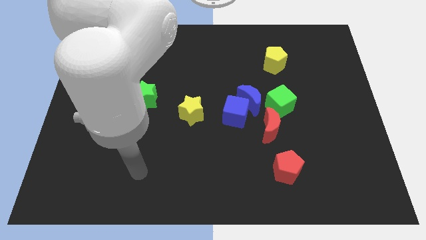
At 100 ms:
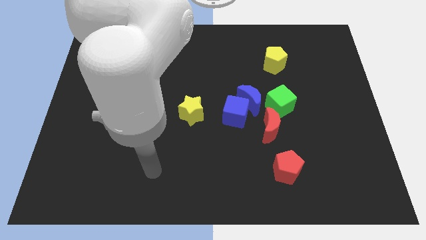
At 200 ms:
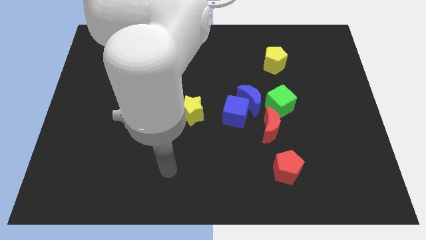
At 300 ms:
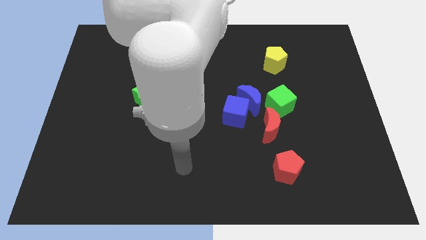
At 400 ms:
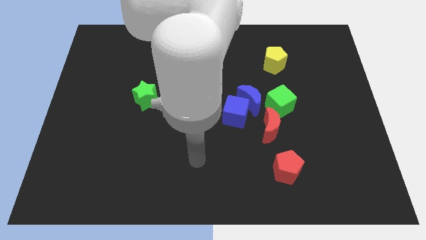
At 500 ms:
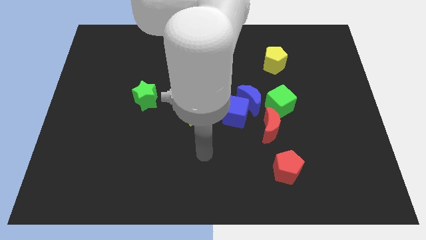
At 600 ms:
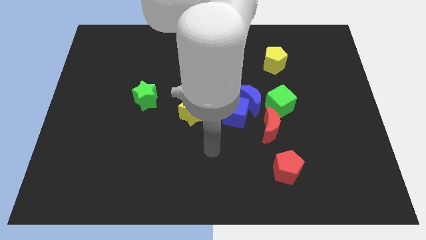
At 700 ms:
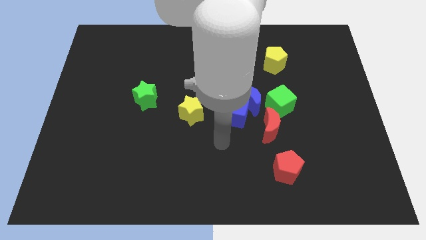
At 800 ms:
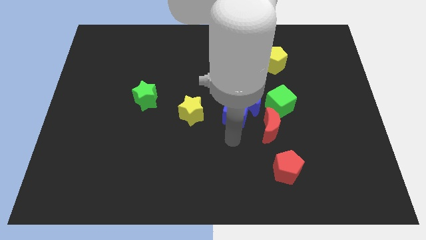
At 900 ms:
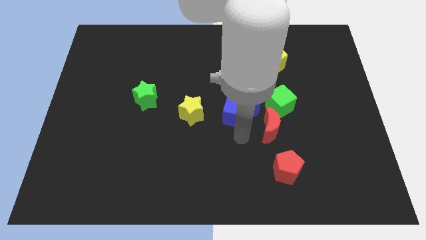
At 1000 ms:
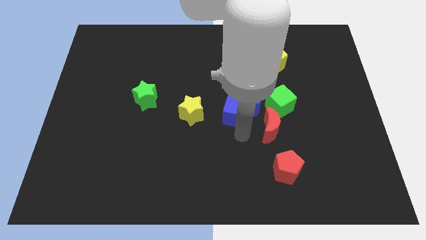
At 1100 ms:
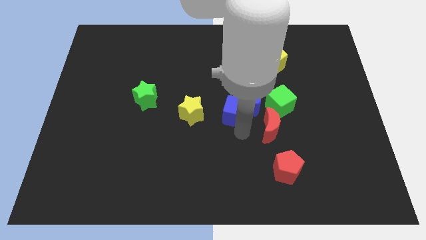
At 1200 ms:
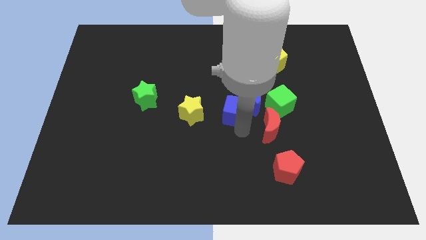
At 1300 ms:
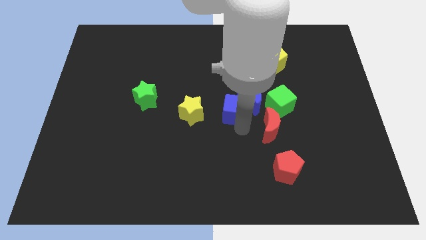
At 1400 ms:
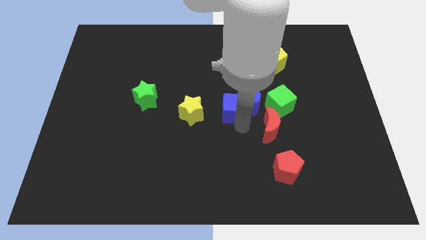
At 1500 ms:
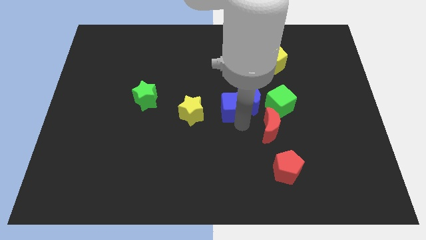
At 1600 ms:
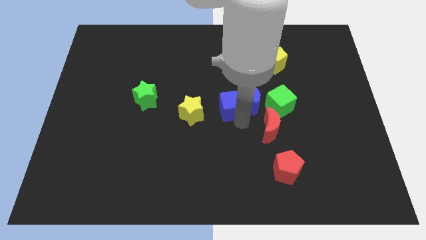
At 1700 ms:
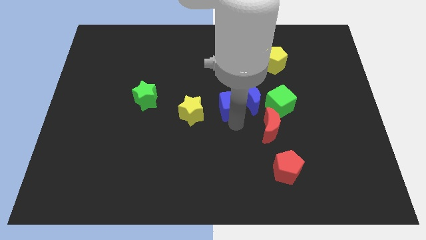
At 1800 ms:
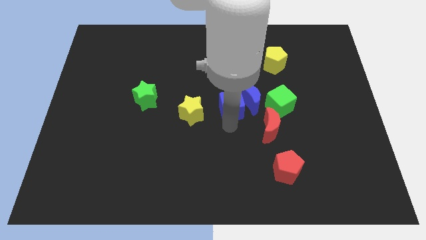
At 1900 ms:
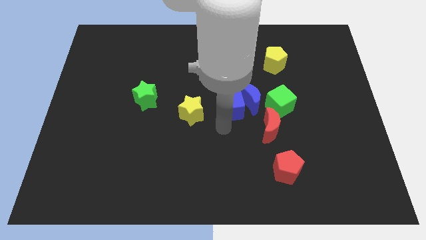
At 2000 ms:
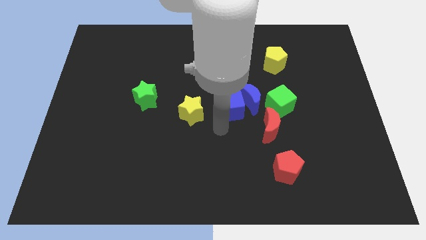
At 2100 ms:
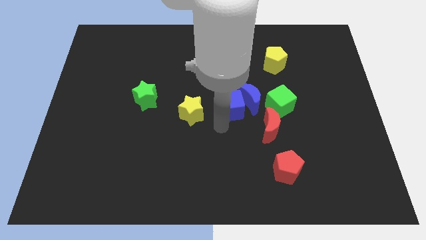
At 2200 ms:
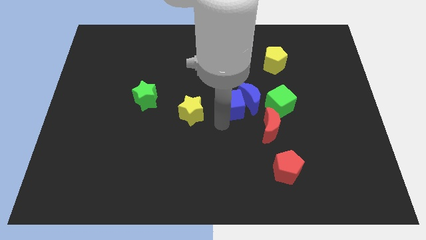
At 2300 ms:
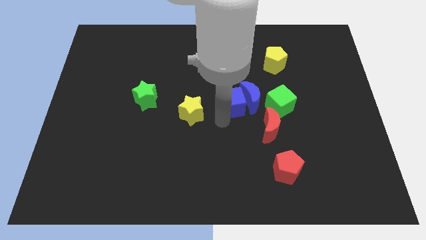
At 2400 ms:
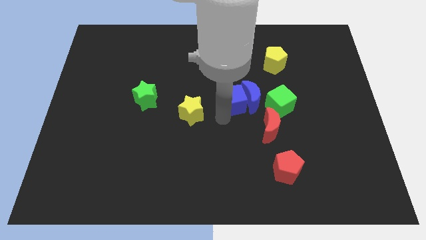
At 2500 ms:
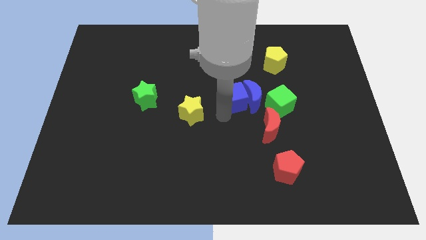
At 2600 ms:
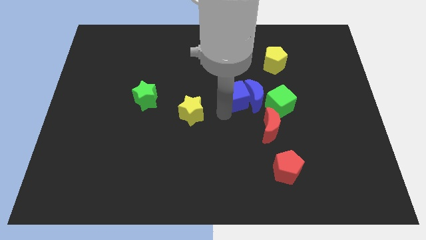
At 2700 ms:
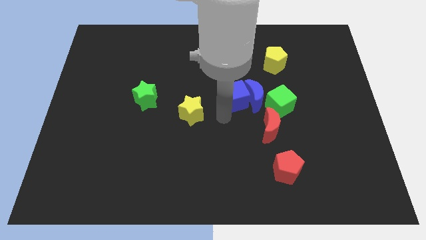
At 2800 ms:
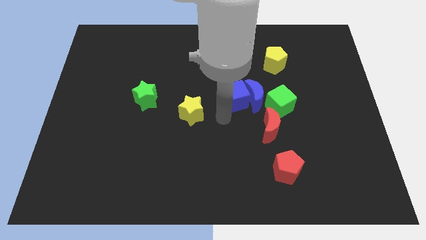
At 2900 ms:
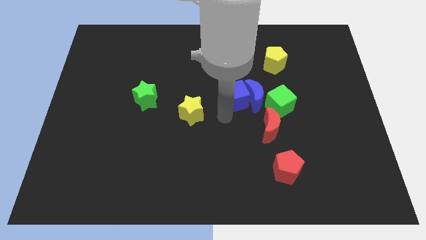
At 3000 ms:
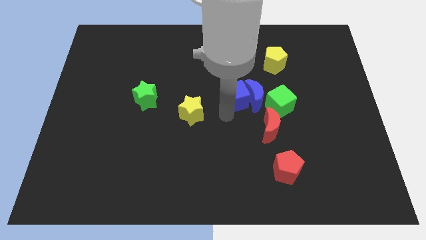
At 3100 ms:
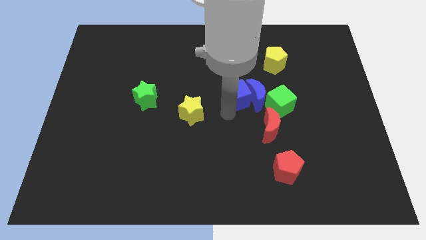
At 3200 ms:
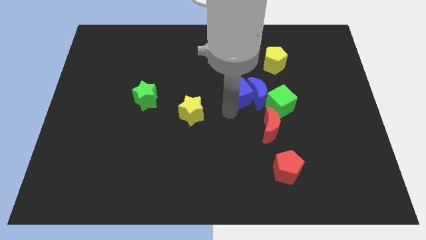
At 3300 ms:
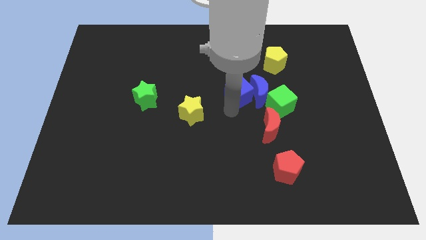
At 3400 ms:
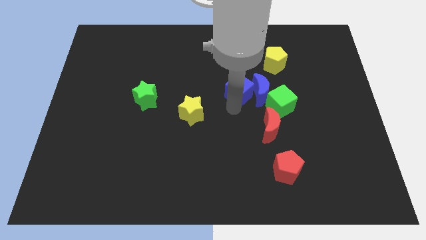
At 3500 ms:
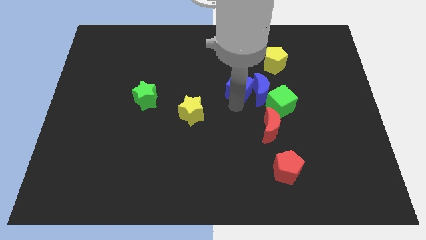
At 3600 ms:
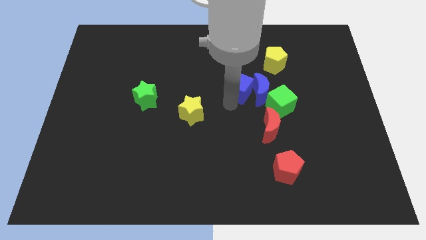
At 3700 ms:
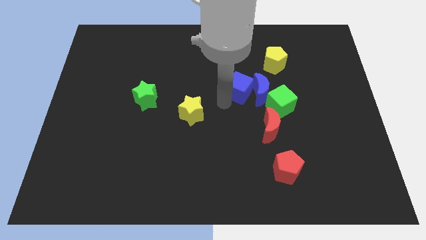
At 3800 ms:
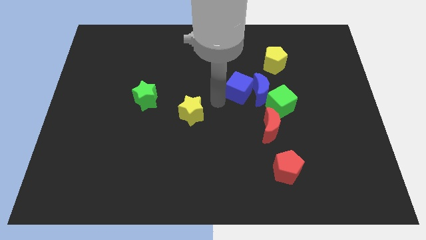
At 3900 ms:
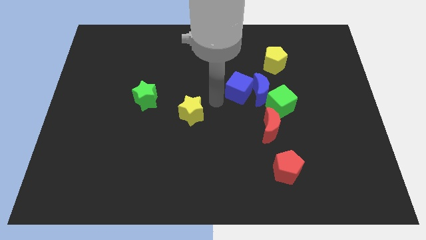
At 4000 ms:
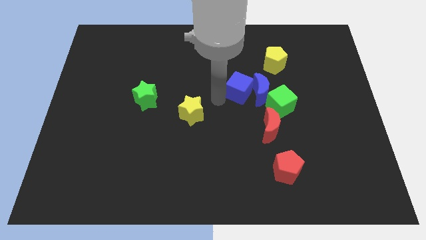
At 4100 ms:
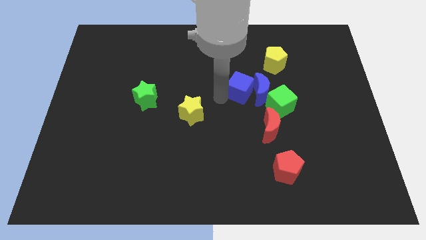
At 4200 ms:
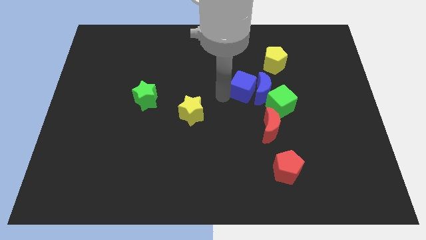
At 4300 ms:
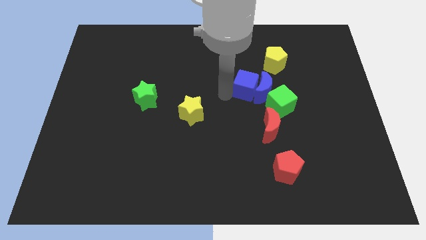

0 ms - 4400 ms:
slightly slide the blue cube upwards and then to the right

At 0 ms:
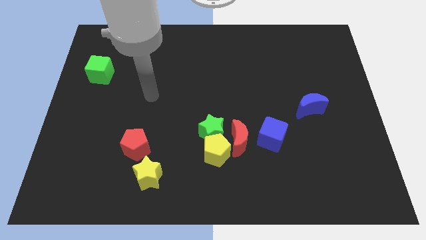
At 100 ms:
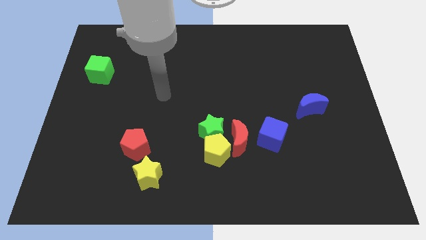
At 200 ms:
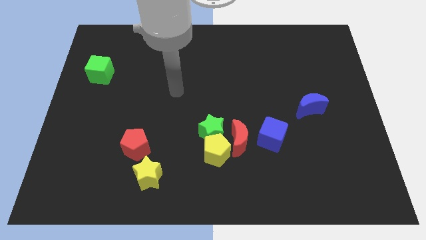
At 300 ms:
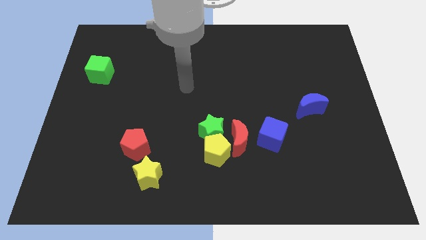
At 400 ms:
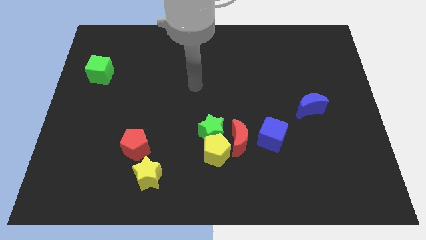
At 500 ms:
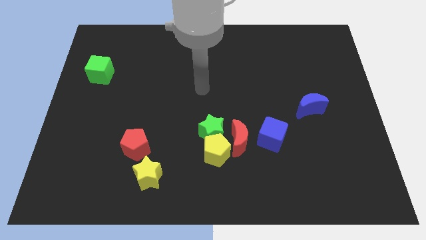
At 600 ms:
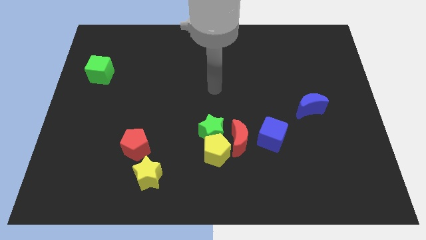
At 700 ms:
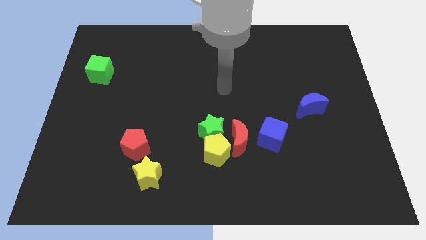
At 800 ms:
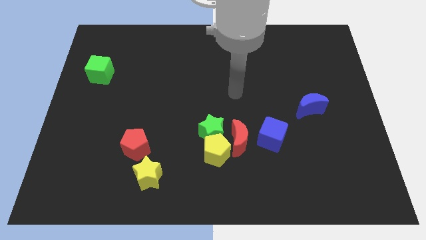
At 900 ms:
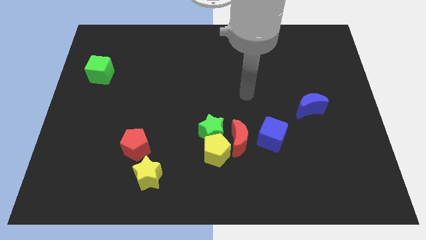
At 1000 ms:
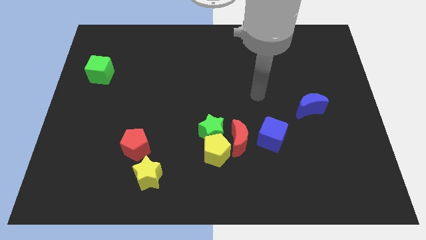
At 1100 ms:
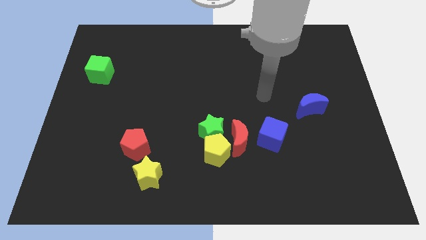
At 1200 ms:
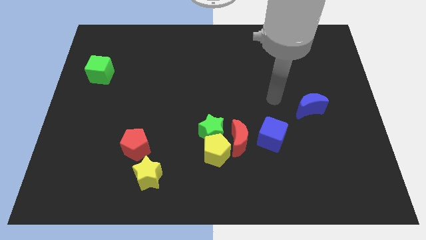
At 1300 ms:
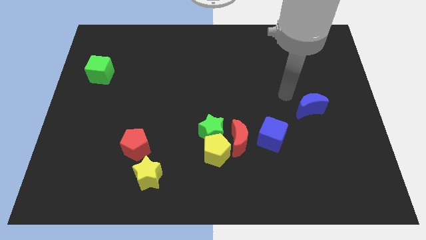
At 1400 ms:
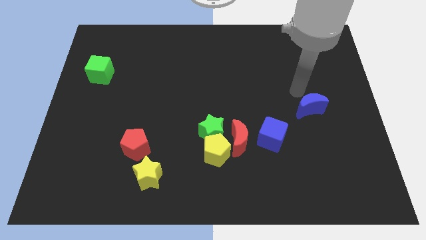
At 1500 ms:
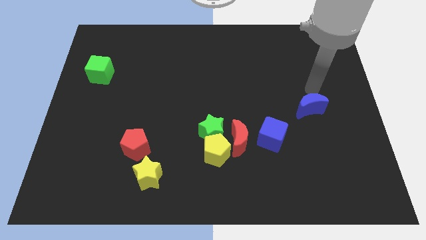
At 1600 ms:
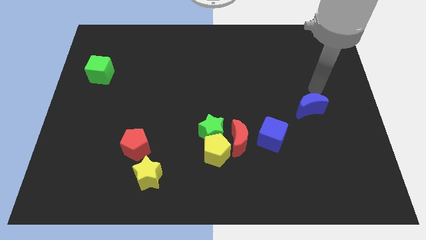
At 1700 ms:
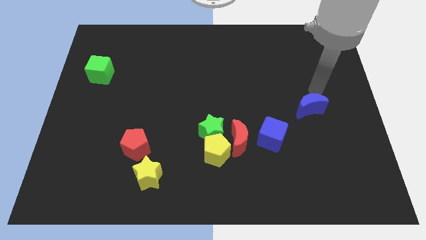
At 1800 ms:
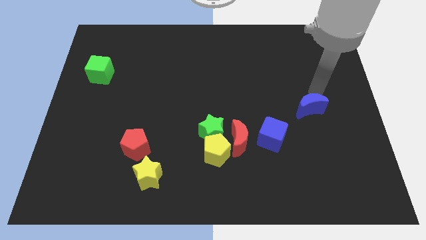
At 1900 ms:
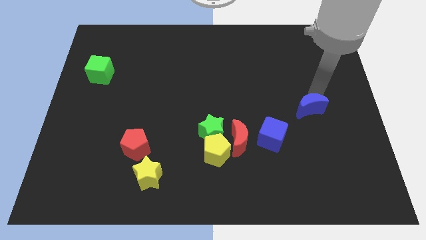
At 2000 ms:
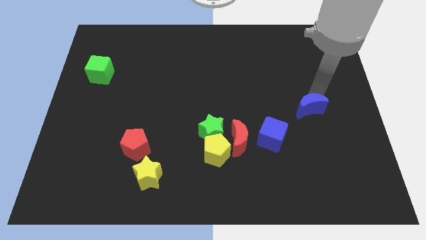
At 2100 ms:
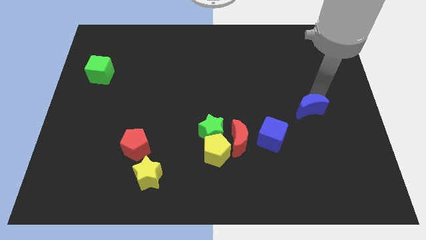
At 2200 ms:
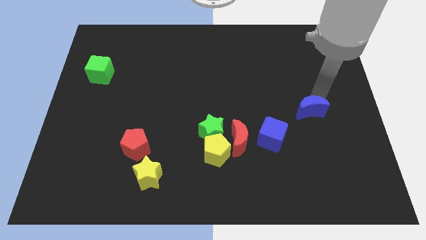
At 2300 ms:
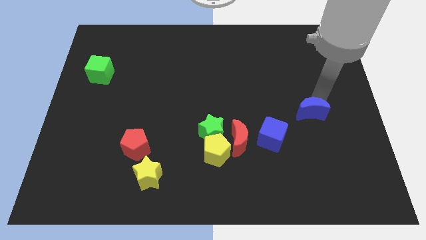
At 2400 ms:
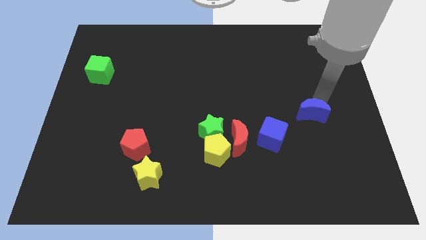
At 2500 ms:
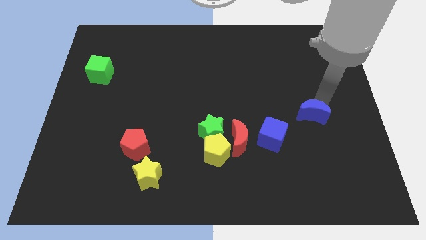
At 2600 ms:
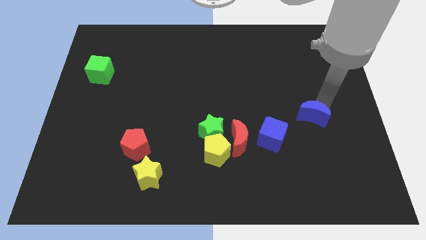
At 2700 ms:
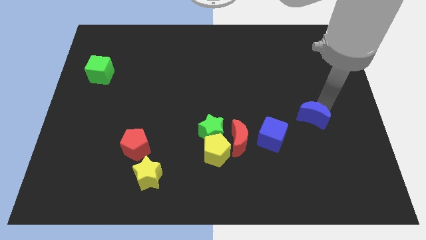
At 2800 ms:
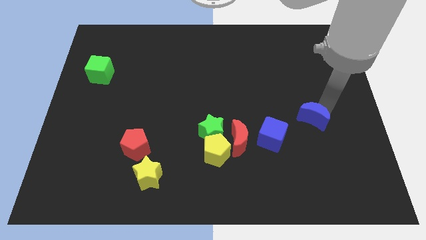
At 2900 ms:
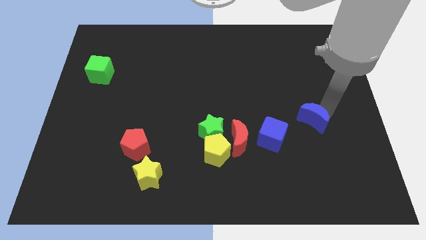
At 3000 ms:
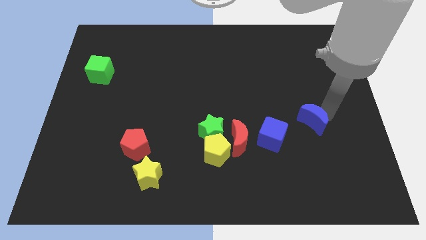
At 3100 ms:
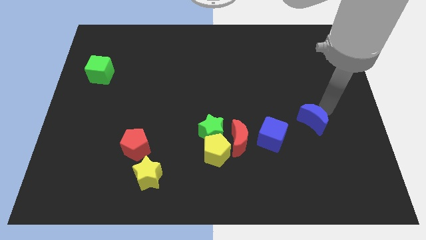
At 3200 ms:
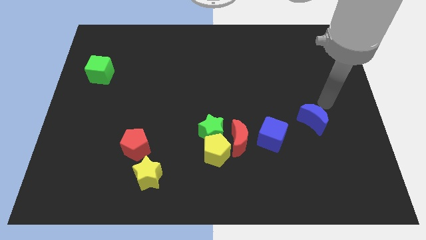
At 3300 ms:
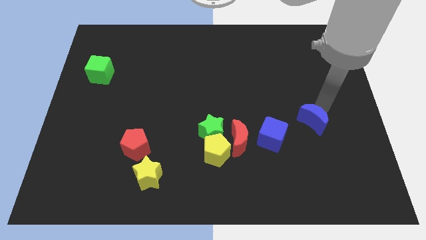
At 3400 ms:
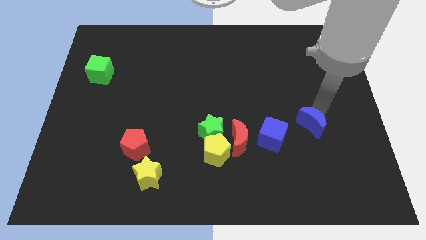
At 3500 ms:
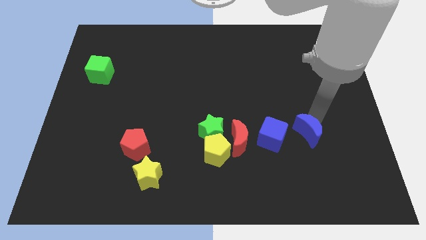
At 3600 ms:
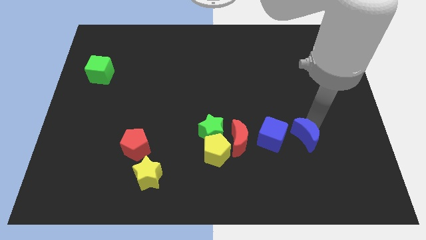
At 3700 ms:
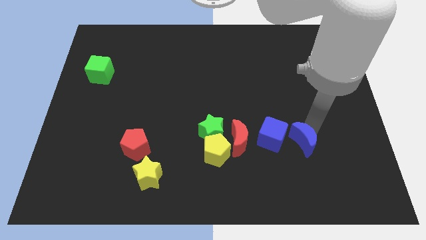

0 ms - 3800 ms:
push the blue moon a little downwards and to the left diagonally
